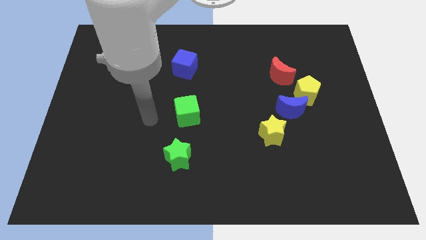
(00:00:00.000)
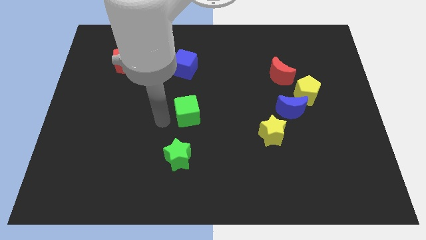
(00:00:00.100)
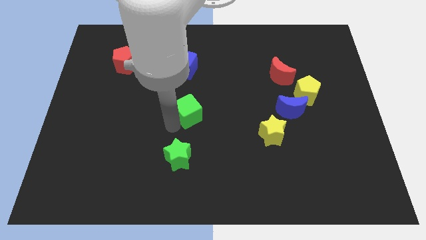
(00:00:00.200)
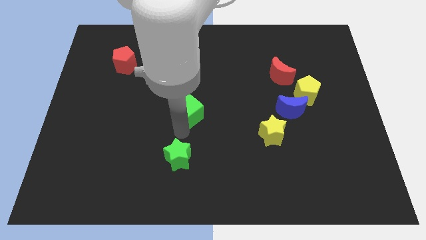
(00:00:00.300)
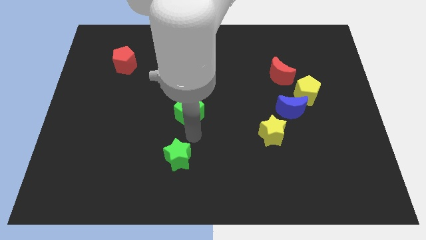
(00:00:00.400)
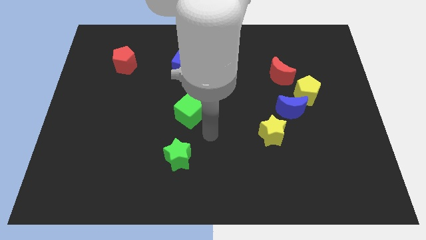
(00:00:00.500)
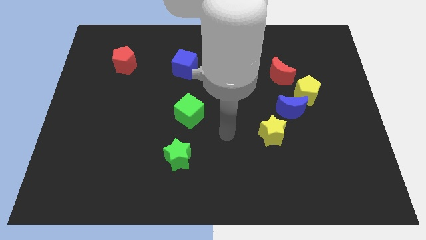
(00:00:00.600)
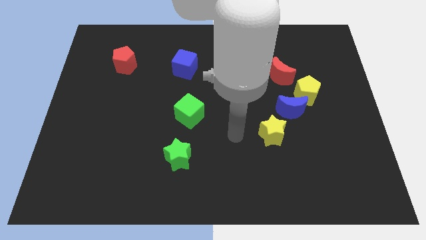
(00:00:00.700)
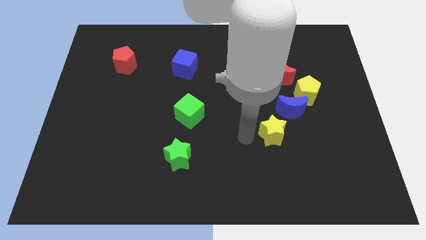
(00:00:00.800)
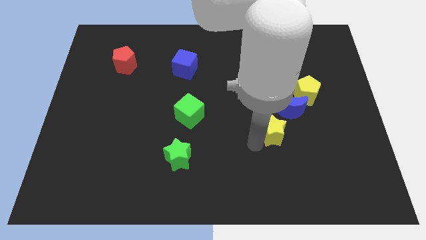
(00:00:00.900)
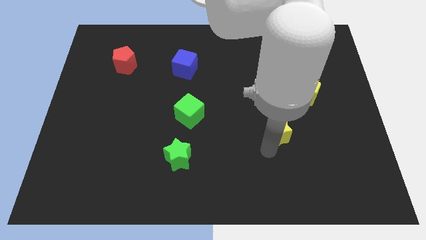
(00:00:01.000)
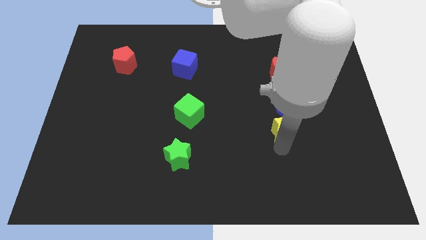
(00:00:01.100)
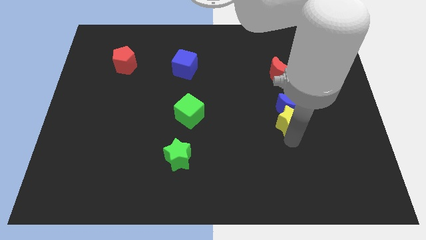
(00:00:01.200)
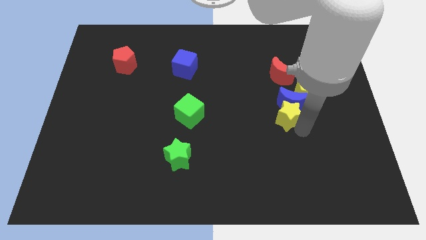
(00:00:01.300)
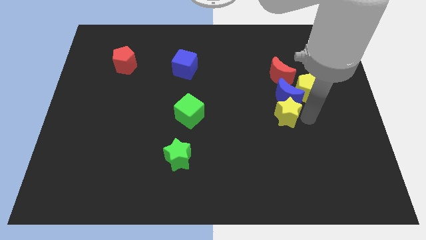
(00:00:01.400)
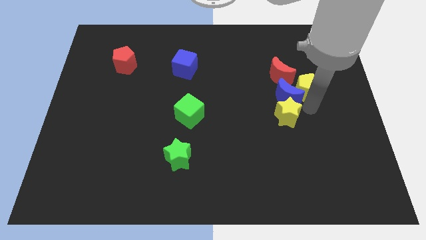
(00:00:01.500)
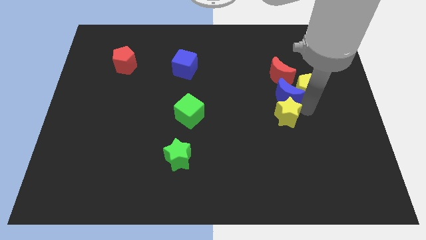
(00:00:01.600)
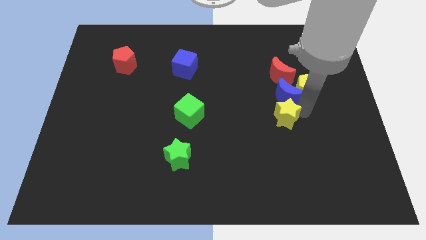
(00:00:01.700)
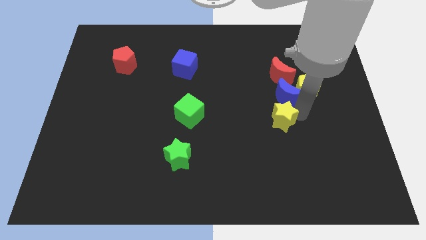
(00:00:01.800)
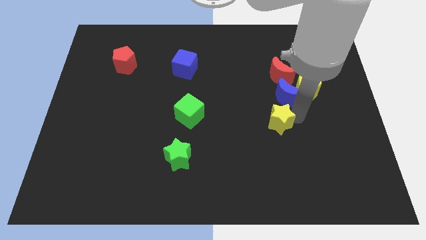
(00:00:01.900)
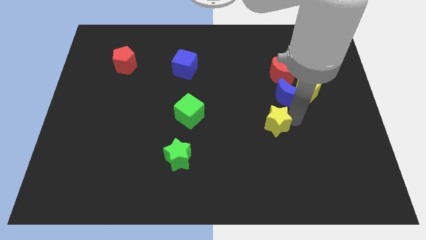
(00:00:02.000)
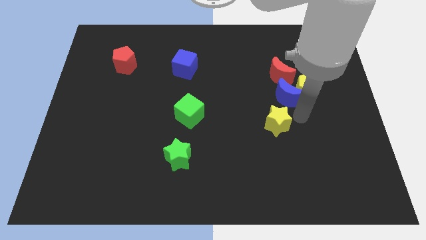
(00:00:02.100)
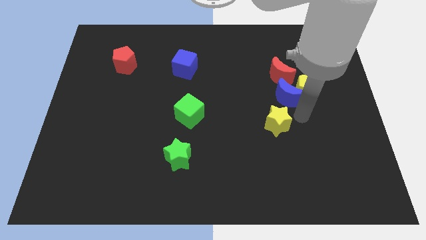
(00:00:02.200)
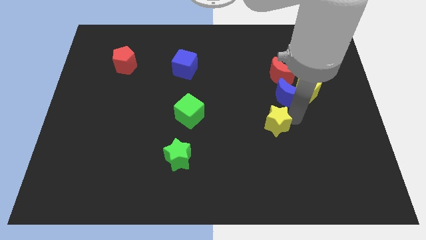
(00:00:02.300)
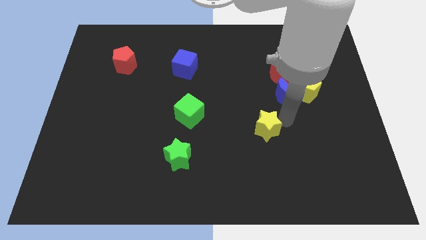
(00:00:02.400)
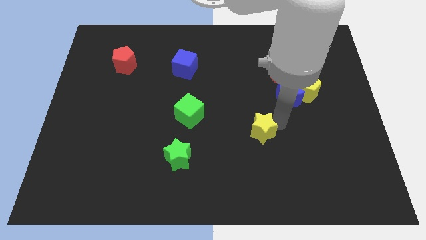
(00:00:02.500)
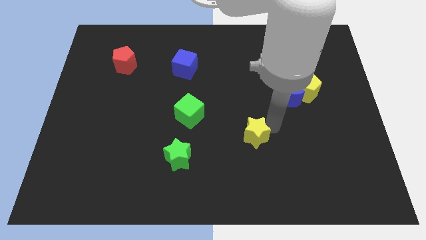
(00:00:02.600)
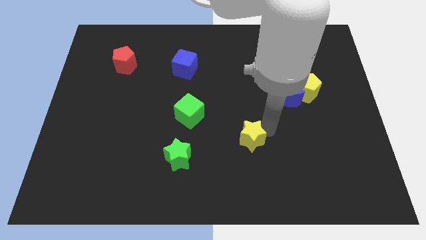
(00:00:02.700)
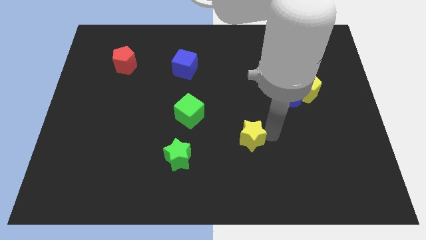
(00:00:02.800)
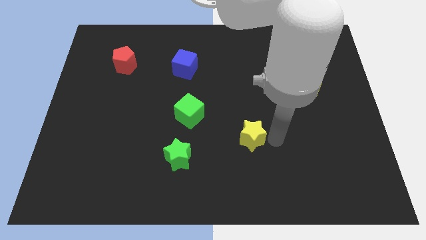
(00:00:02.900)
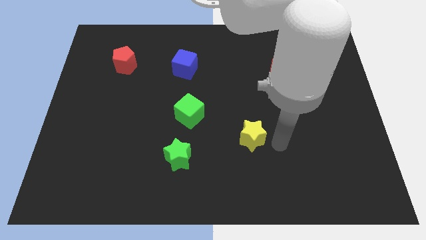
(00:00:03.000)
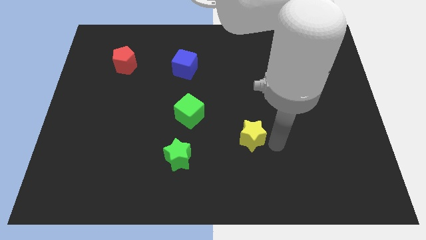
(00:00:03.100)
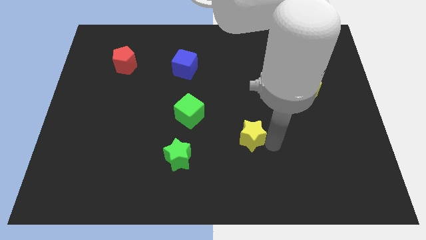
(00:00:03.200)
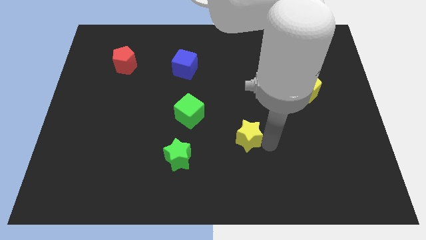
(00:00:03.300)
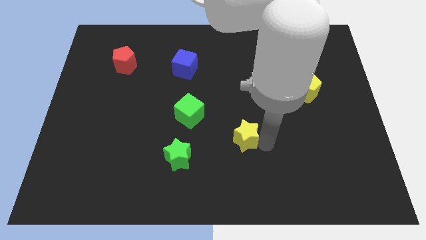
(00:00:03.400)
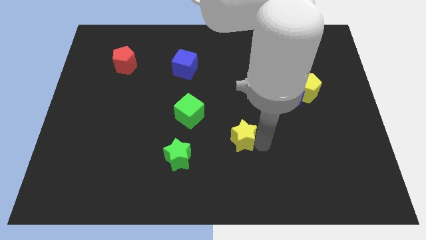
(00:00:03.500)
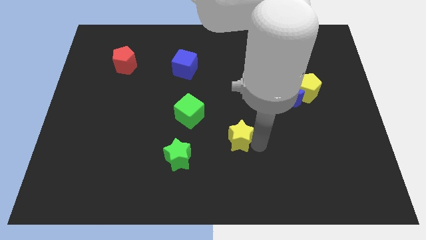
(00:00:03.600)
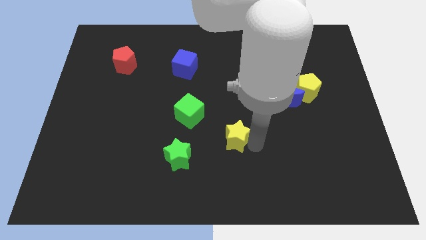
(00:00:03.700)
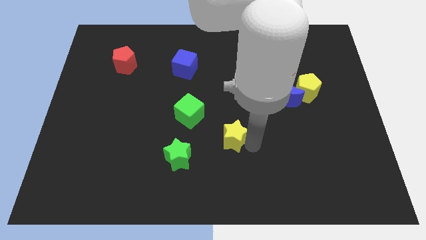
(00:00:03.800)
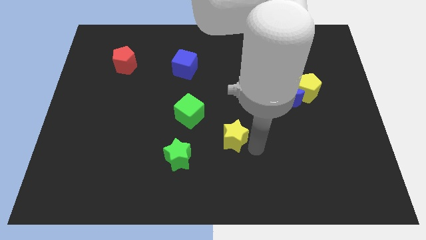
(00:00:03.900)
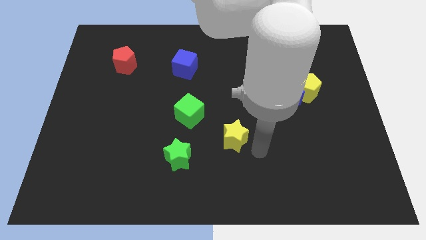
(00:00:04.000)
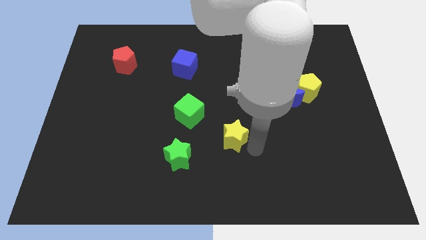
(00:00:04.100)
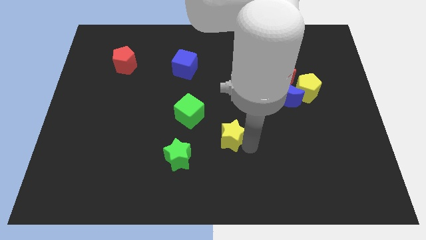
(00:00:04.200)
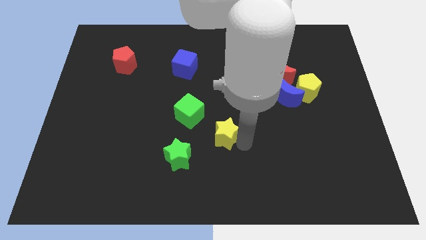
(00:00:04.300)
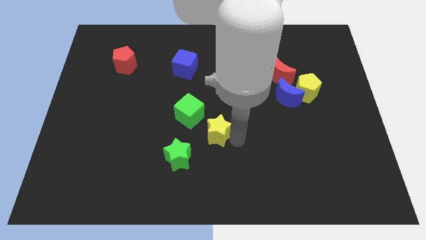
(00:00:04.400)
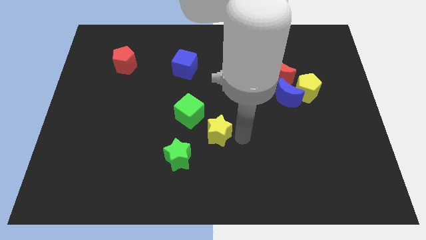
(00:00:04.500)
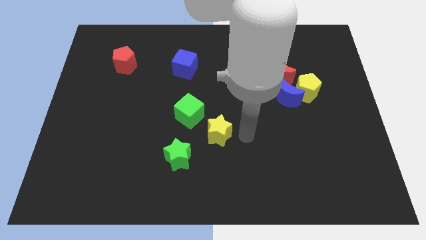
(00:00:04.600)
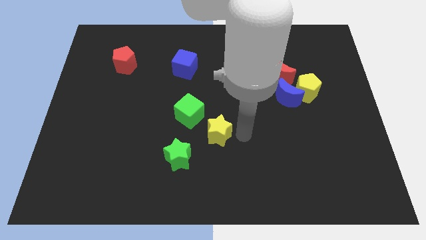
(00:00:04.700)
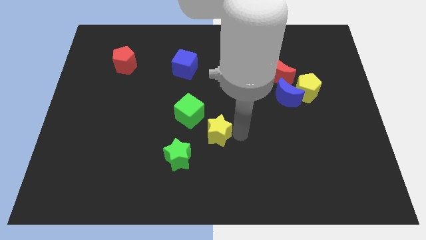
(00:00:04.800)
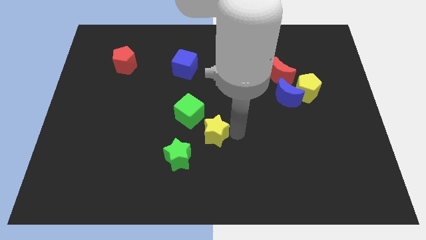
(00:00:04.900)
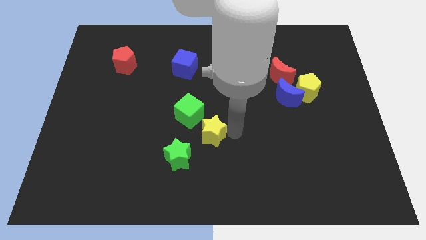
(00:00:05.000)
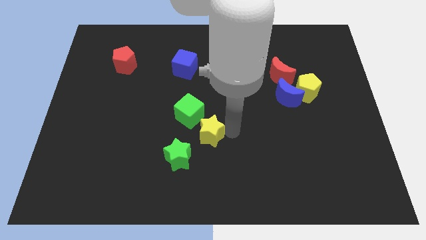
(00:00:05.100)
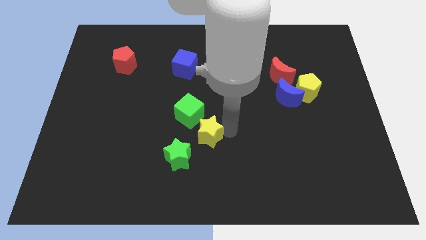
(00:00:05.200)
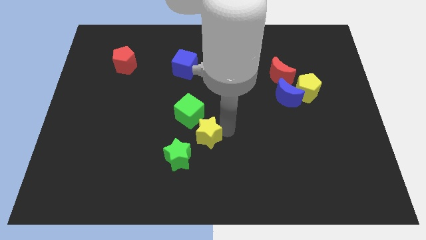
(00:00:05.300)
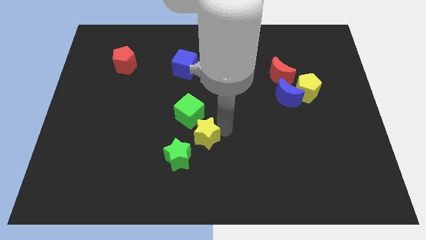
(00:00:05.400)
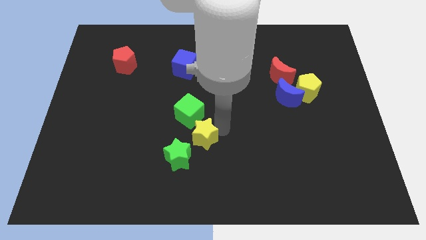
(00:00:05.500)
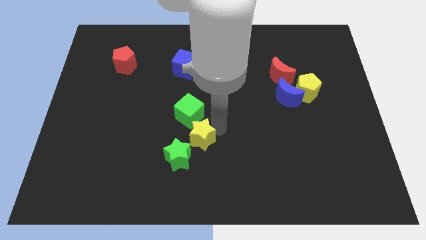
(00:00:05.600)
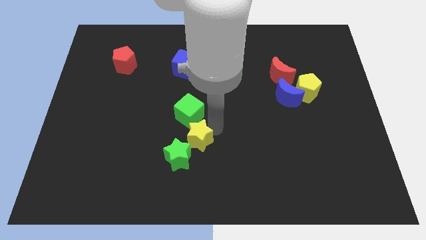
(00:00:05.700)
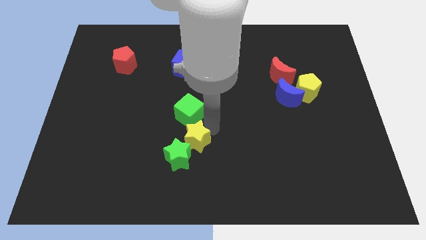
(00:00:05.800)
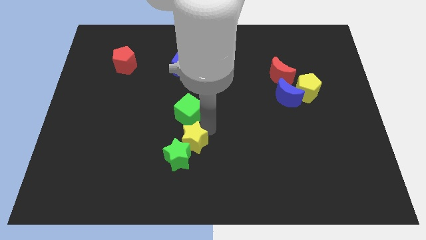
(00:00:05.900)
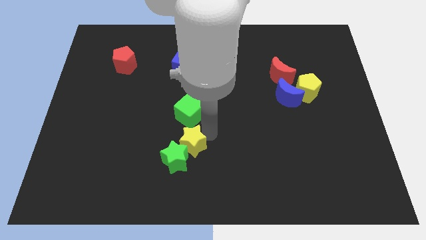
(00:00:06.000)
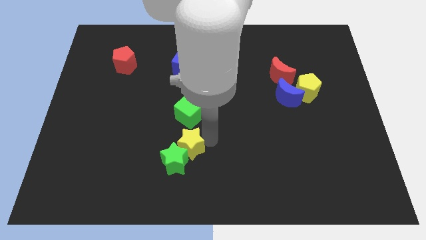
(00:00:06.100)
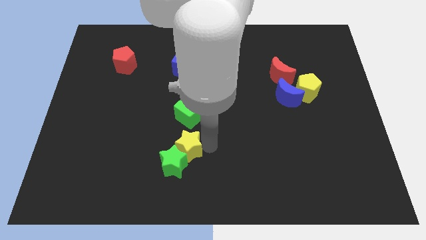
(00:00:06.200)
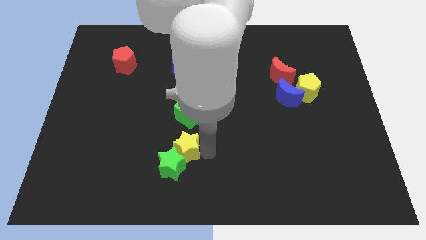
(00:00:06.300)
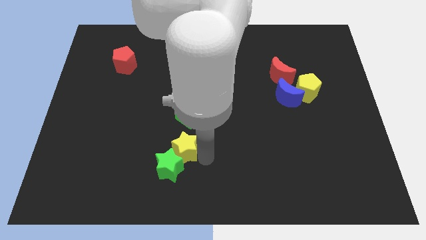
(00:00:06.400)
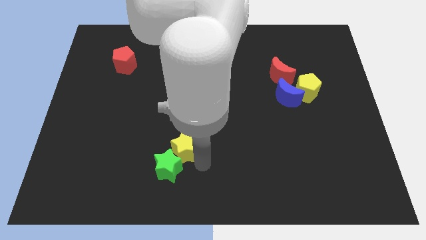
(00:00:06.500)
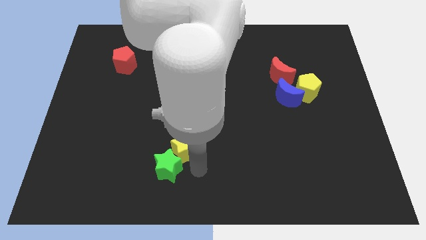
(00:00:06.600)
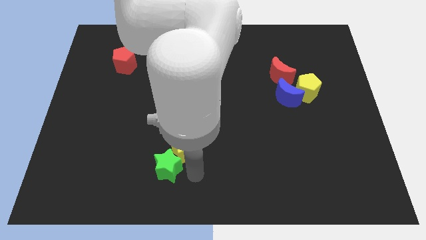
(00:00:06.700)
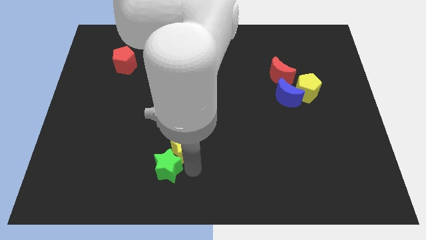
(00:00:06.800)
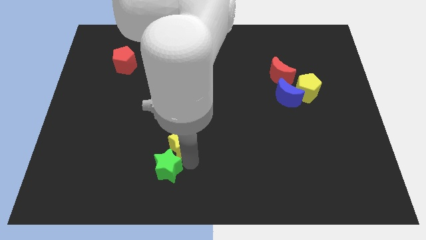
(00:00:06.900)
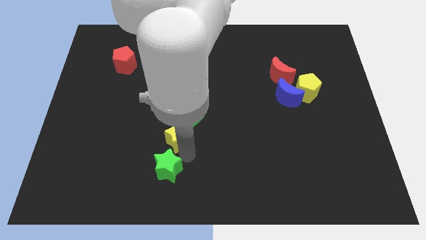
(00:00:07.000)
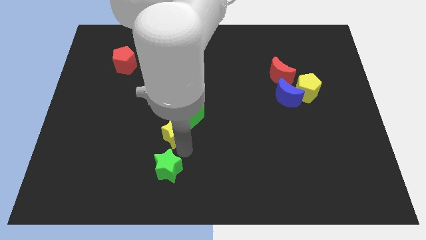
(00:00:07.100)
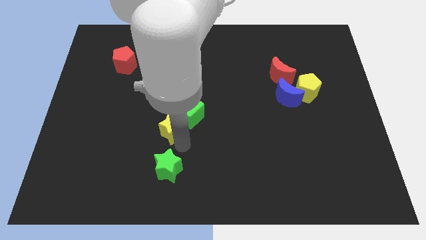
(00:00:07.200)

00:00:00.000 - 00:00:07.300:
move the yellow star just left of the green cube
